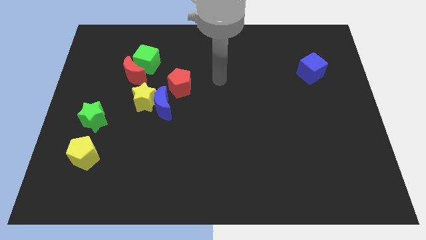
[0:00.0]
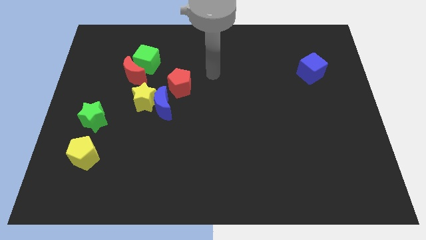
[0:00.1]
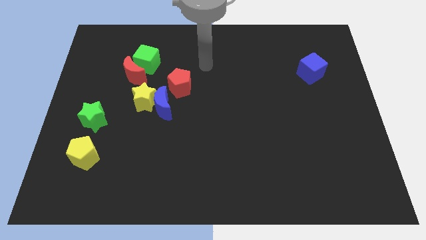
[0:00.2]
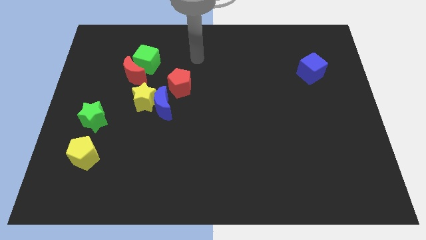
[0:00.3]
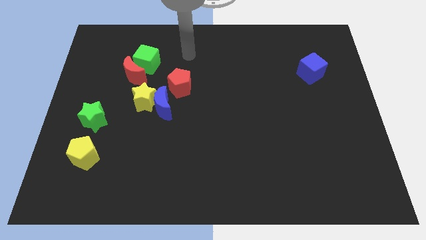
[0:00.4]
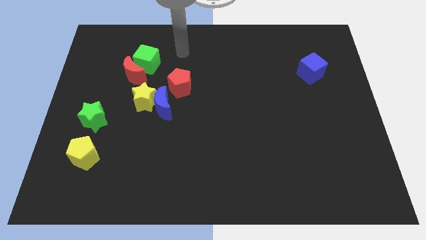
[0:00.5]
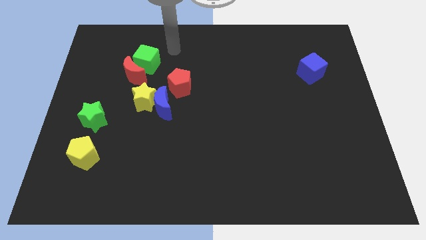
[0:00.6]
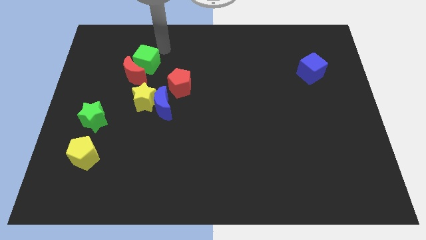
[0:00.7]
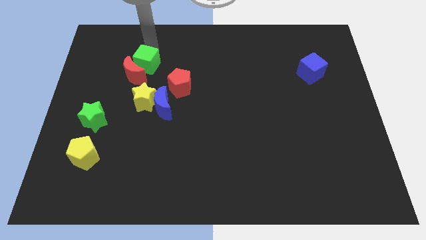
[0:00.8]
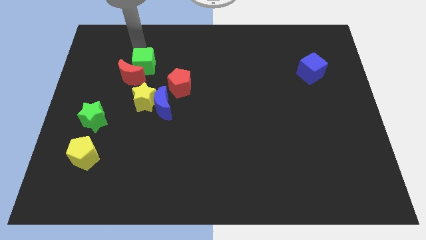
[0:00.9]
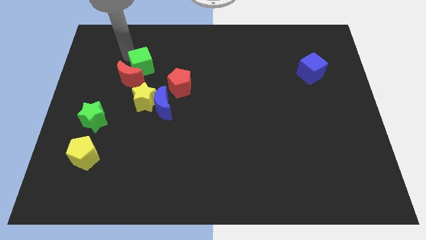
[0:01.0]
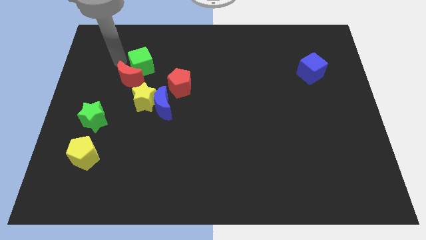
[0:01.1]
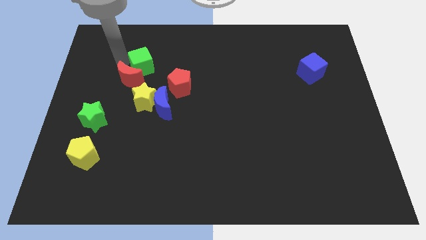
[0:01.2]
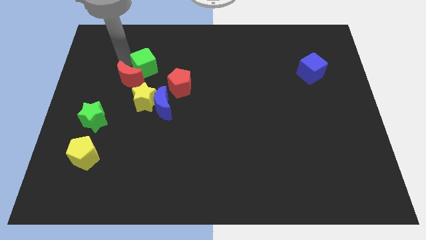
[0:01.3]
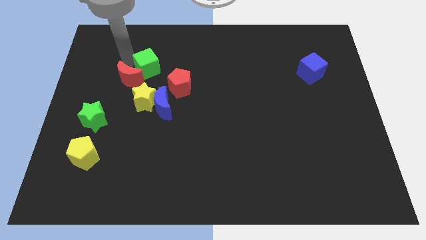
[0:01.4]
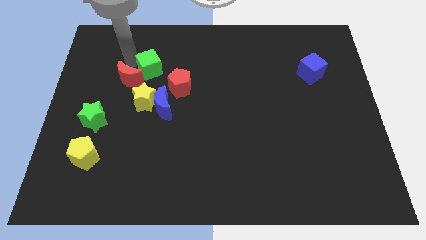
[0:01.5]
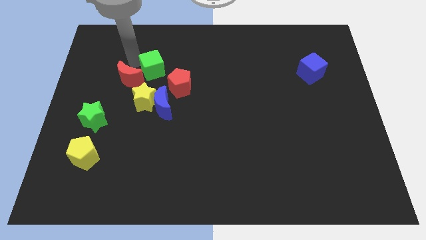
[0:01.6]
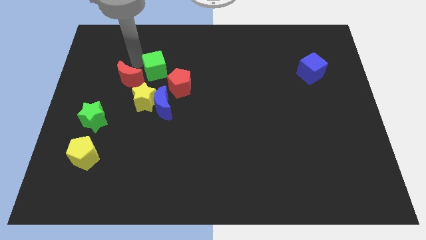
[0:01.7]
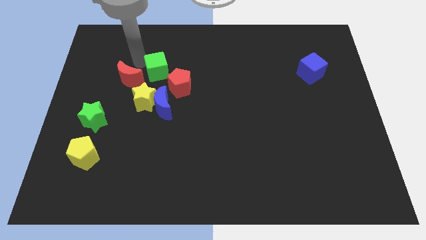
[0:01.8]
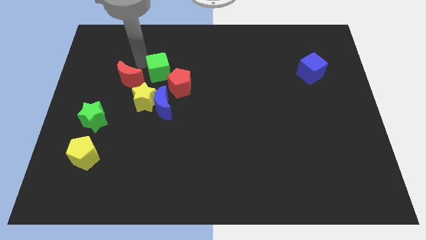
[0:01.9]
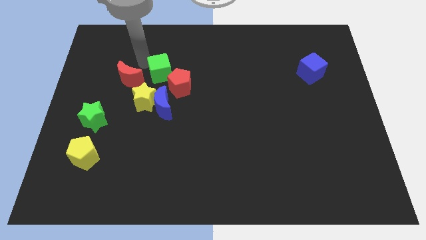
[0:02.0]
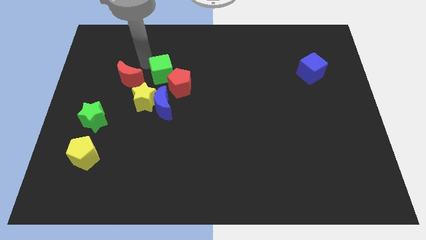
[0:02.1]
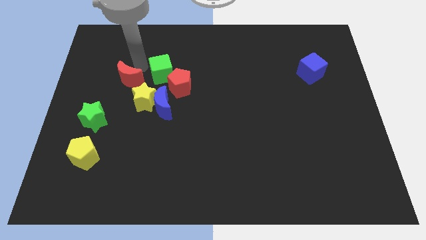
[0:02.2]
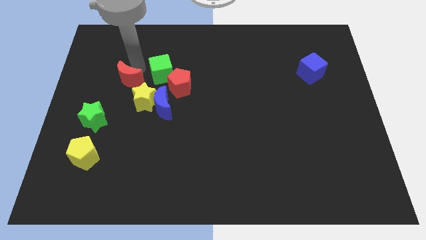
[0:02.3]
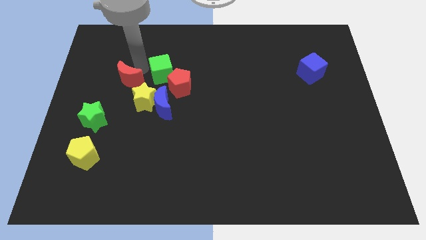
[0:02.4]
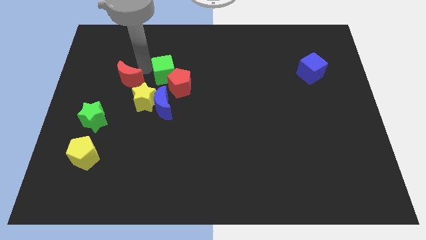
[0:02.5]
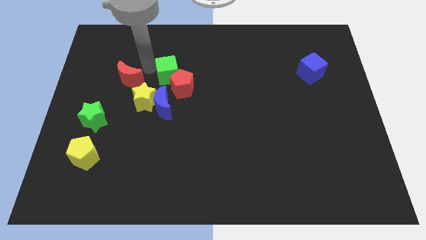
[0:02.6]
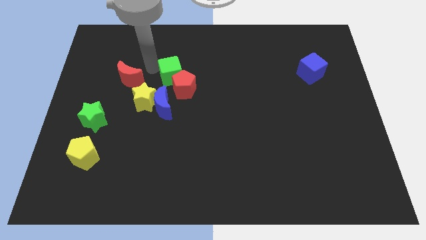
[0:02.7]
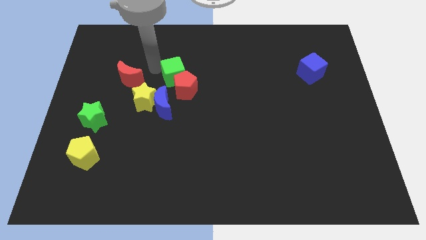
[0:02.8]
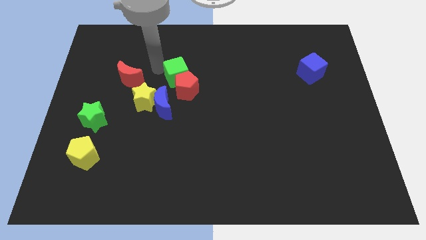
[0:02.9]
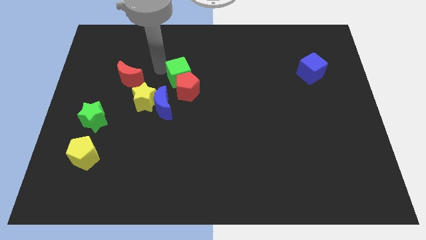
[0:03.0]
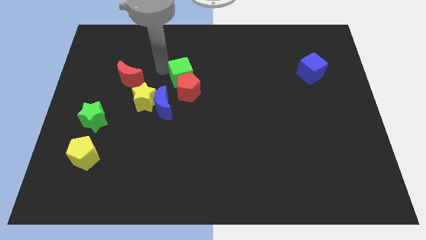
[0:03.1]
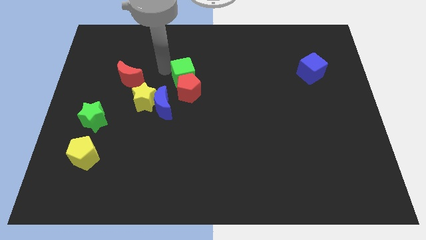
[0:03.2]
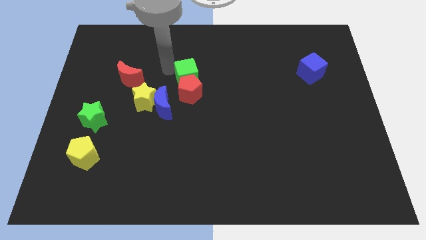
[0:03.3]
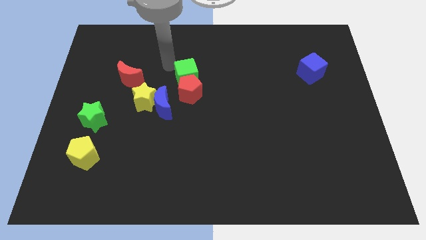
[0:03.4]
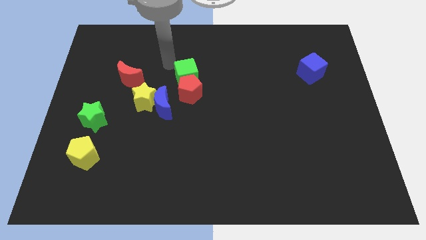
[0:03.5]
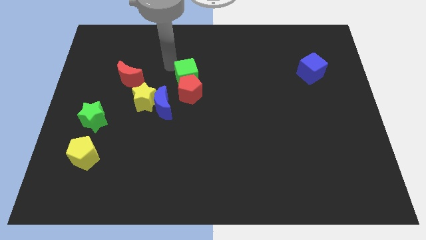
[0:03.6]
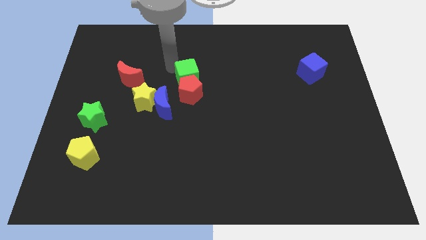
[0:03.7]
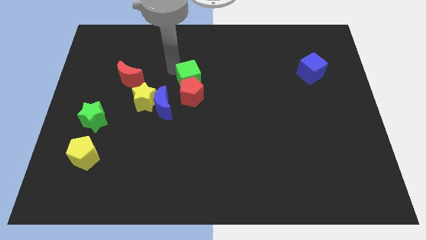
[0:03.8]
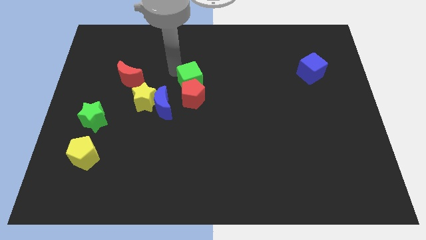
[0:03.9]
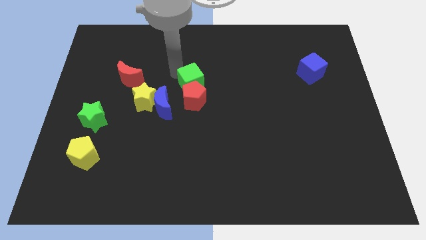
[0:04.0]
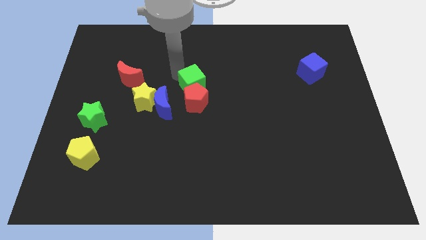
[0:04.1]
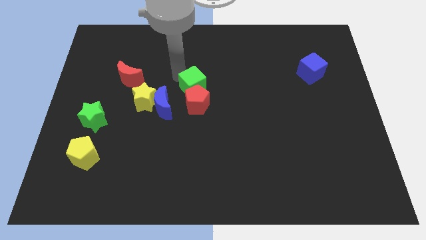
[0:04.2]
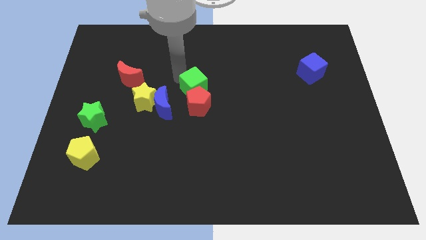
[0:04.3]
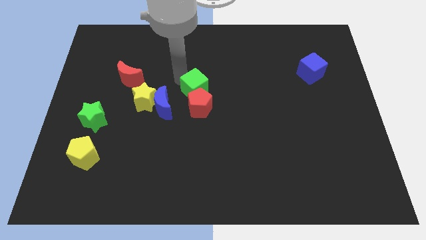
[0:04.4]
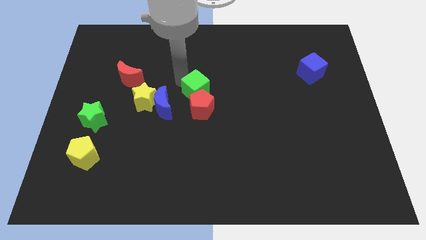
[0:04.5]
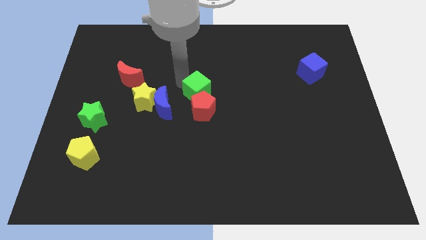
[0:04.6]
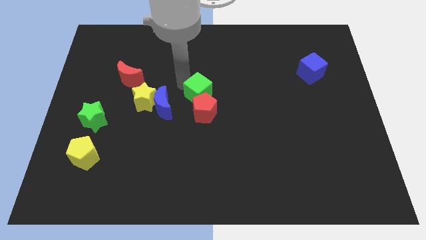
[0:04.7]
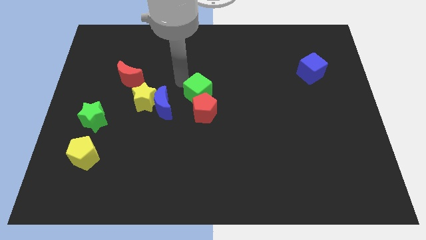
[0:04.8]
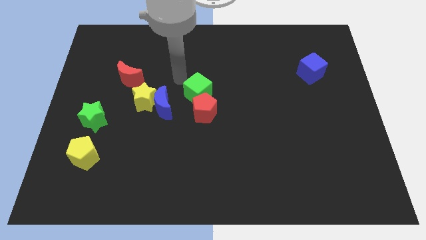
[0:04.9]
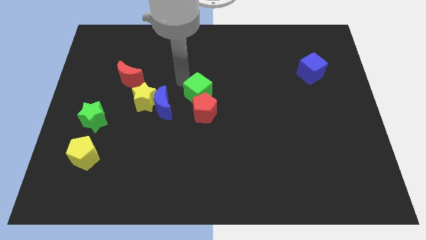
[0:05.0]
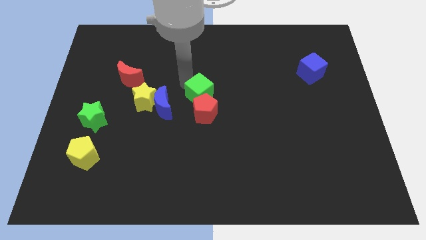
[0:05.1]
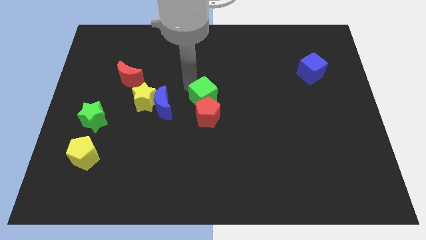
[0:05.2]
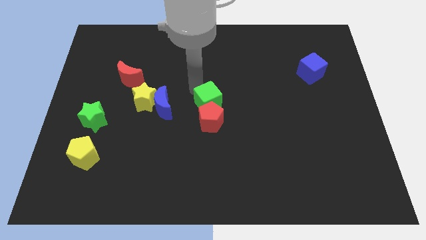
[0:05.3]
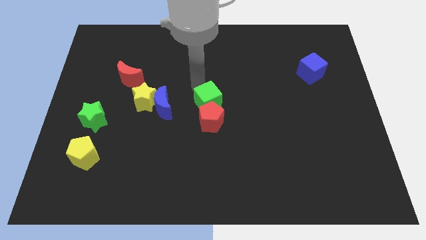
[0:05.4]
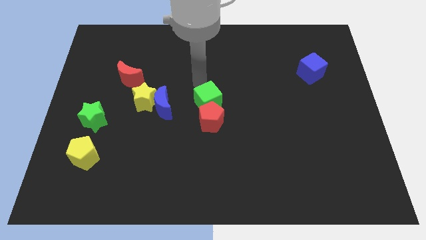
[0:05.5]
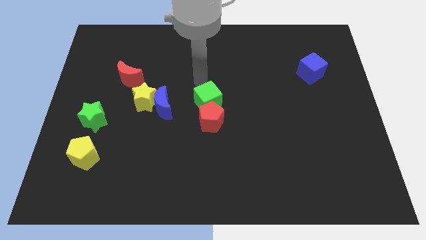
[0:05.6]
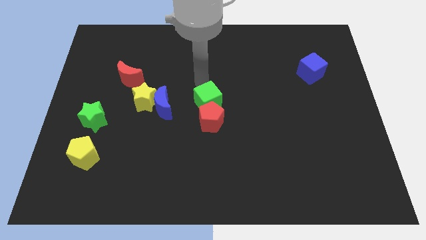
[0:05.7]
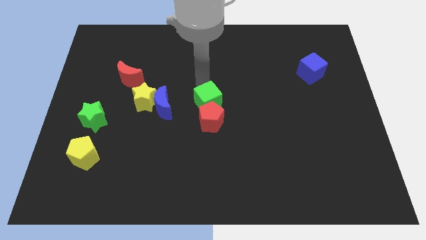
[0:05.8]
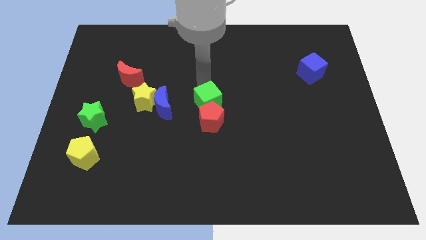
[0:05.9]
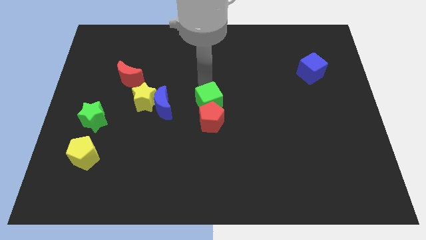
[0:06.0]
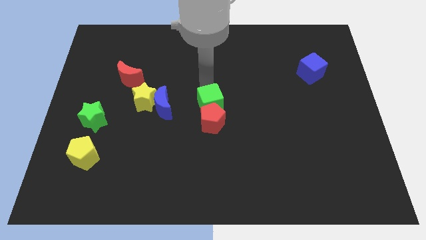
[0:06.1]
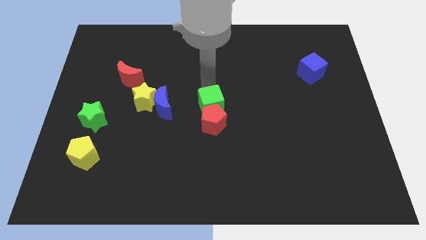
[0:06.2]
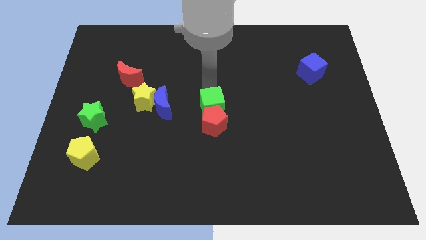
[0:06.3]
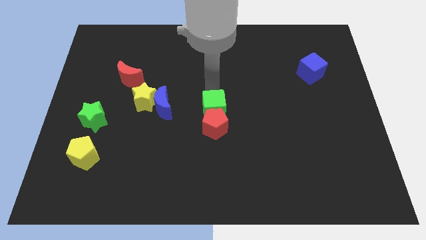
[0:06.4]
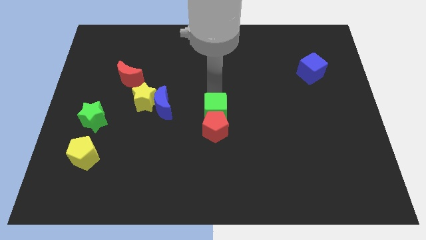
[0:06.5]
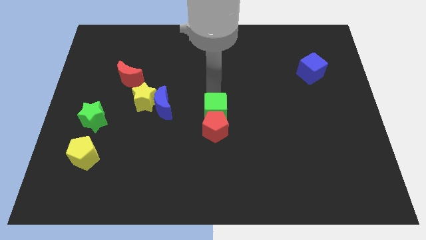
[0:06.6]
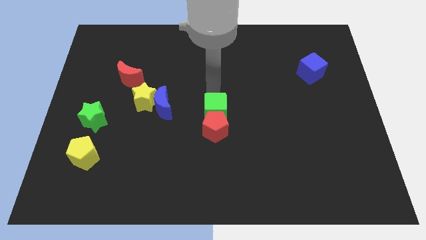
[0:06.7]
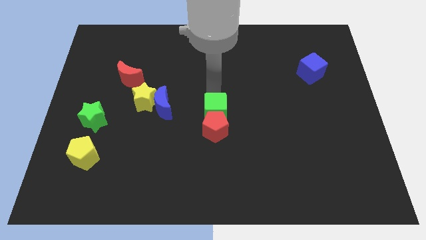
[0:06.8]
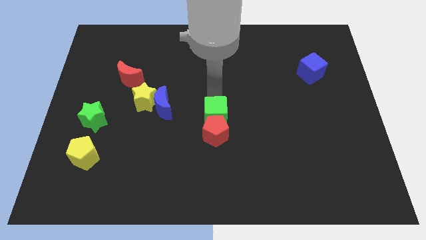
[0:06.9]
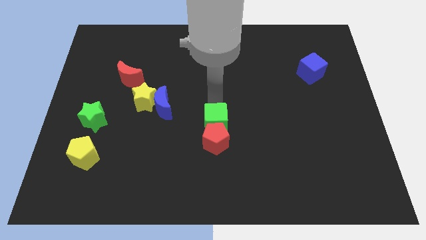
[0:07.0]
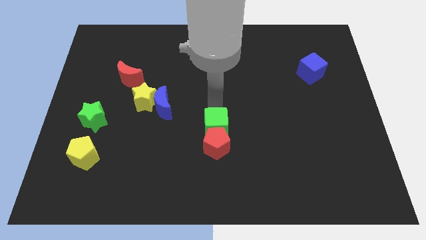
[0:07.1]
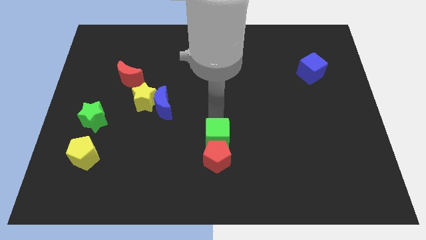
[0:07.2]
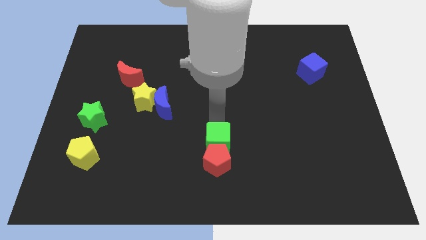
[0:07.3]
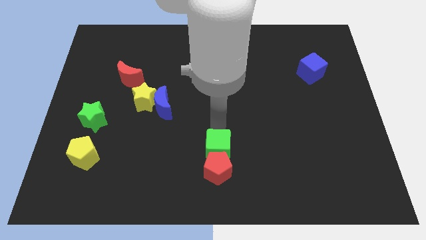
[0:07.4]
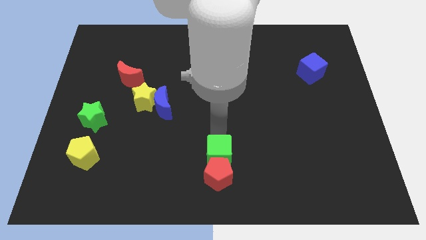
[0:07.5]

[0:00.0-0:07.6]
move the green cube to the bottom
